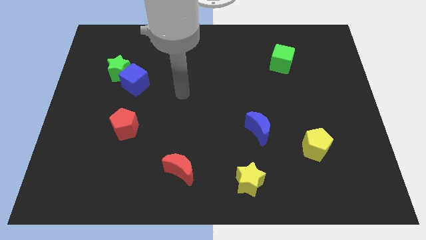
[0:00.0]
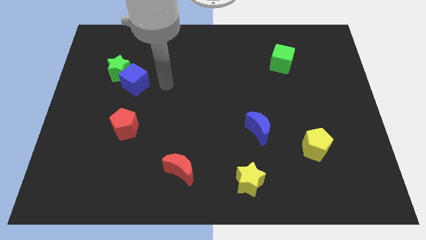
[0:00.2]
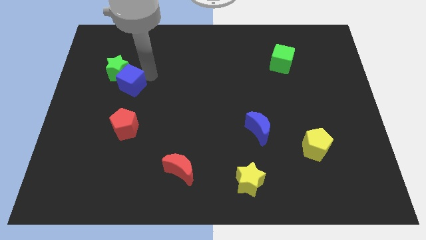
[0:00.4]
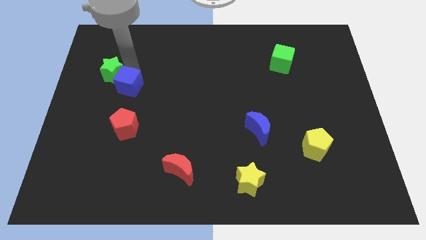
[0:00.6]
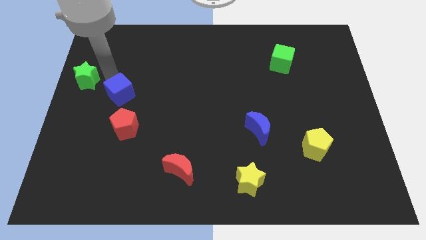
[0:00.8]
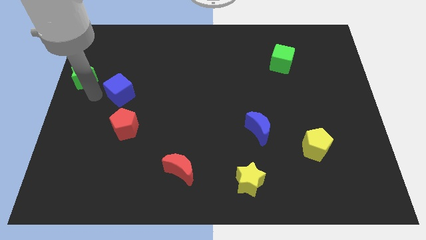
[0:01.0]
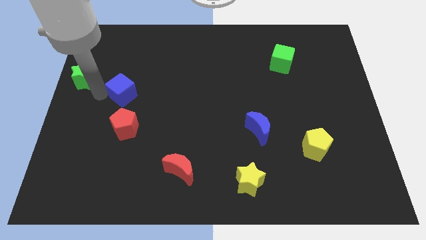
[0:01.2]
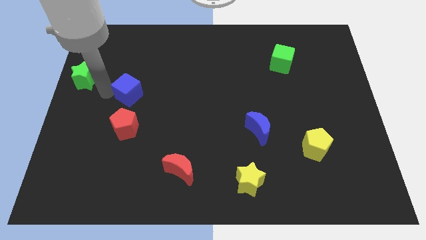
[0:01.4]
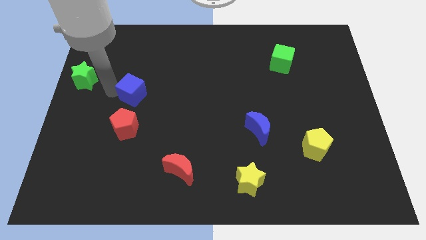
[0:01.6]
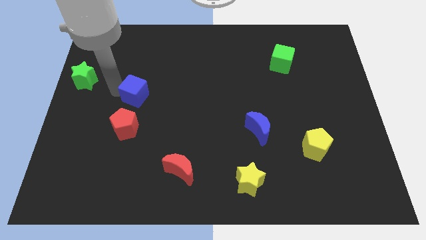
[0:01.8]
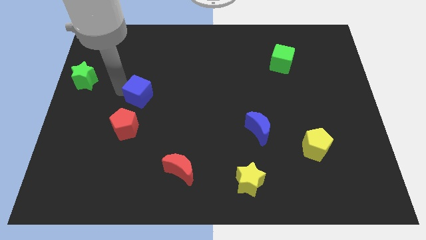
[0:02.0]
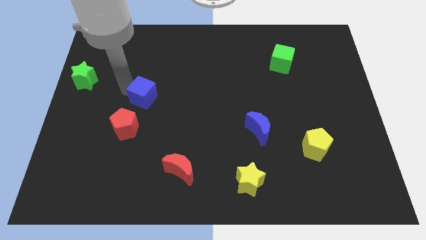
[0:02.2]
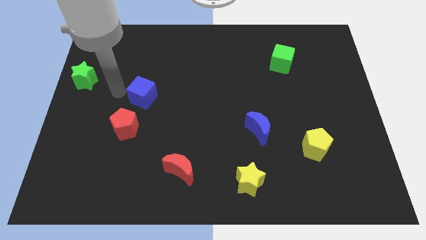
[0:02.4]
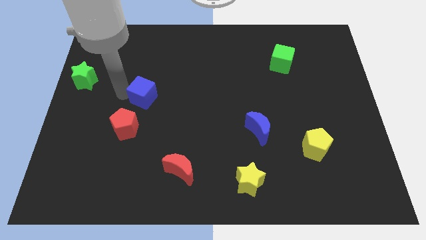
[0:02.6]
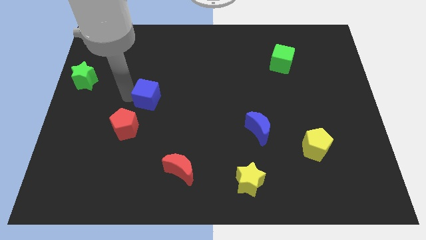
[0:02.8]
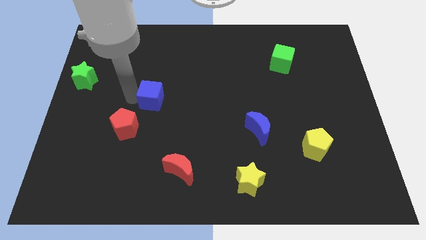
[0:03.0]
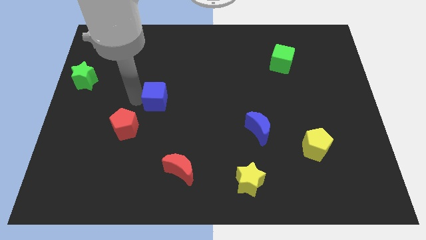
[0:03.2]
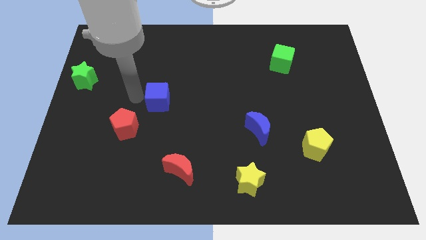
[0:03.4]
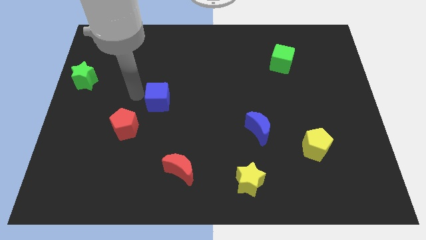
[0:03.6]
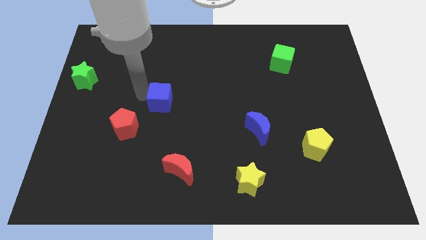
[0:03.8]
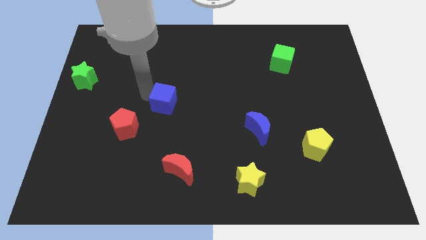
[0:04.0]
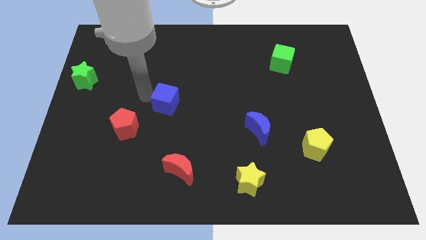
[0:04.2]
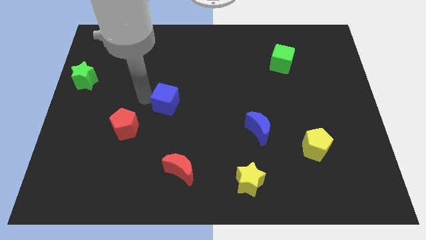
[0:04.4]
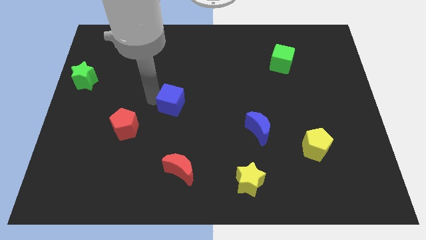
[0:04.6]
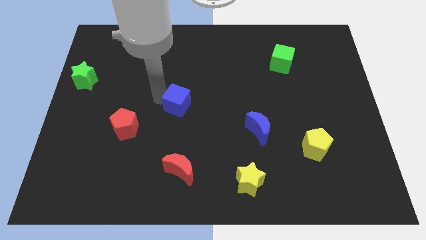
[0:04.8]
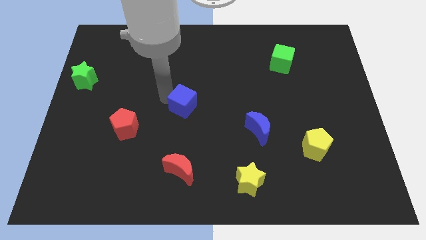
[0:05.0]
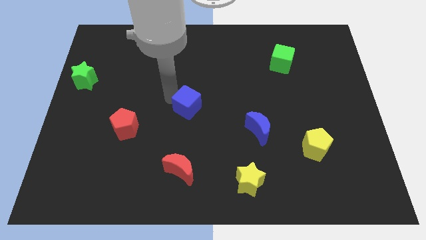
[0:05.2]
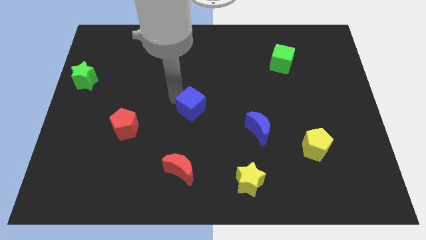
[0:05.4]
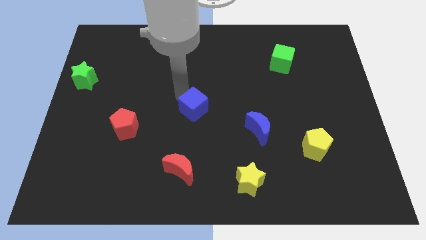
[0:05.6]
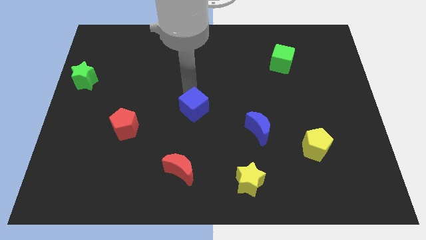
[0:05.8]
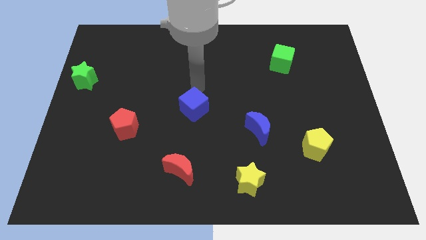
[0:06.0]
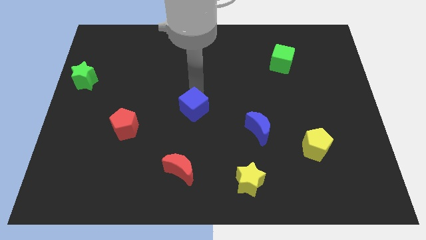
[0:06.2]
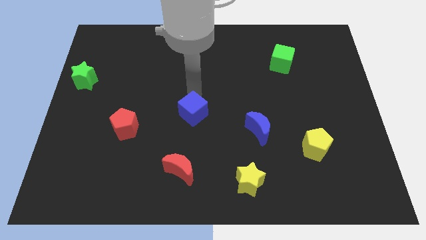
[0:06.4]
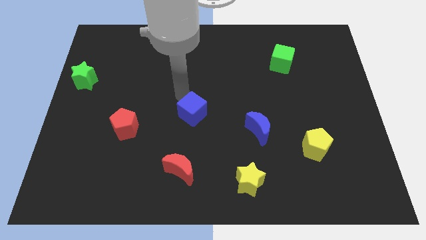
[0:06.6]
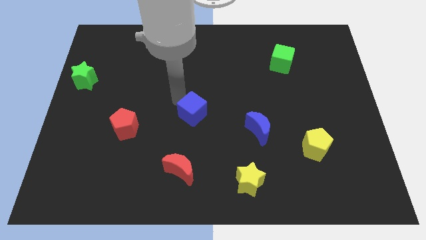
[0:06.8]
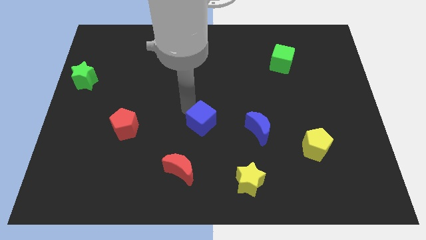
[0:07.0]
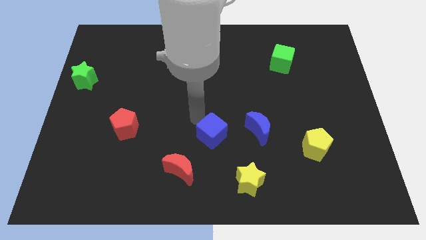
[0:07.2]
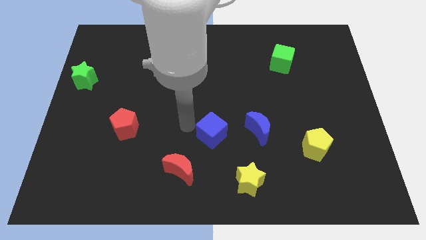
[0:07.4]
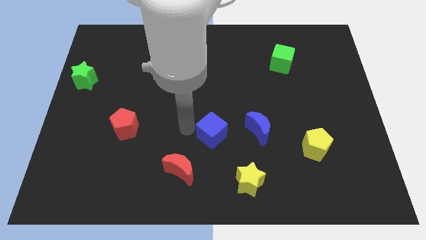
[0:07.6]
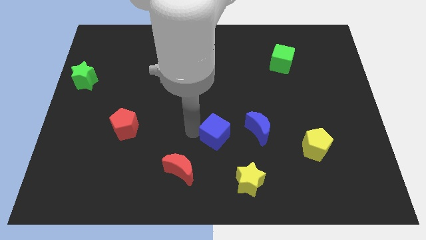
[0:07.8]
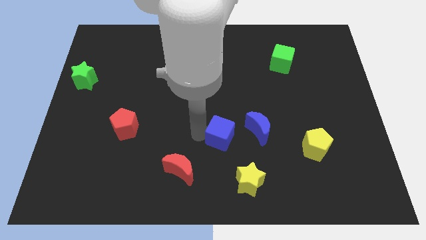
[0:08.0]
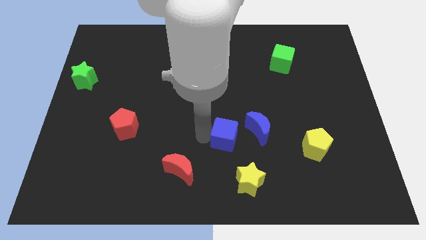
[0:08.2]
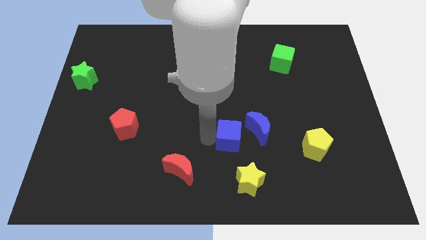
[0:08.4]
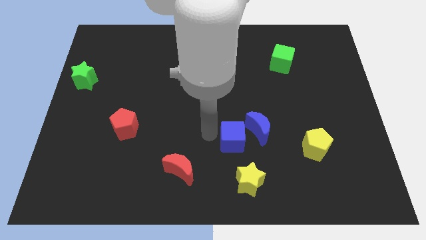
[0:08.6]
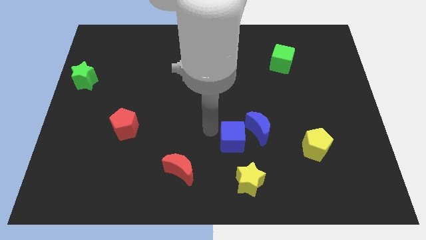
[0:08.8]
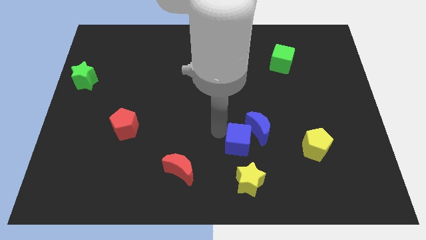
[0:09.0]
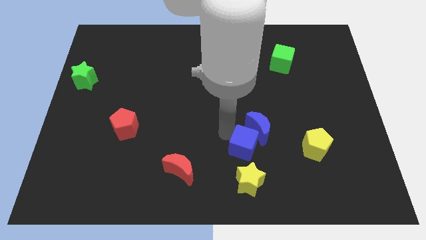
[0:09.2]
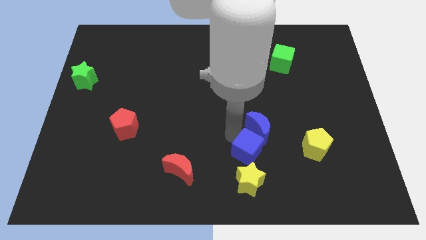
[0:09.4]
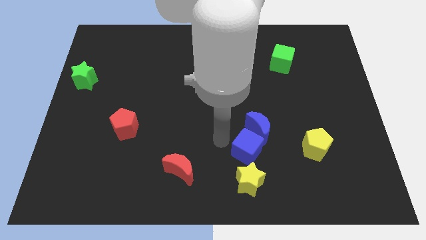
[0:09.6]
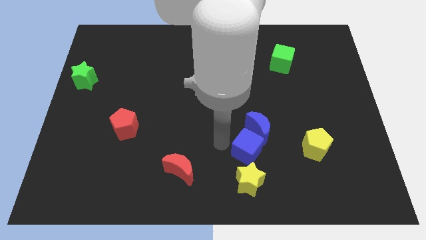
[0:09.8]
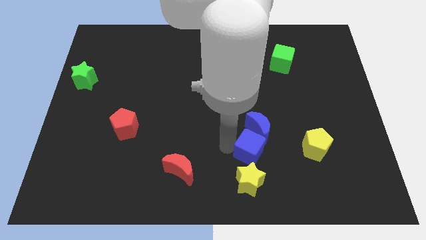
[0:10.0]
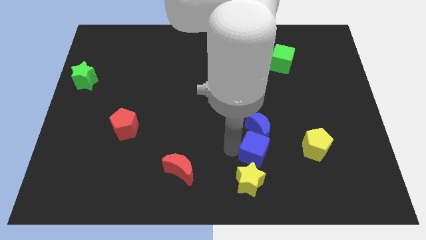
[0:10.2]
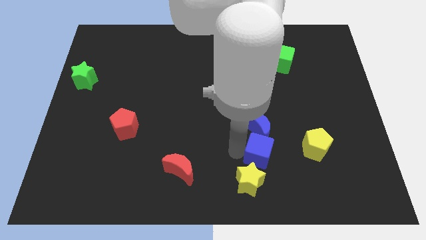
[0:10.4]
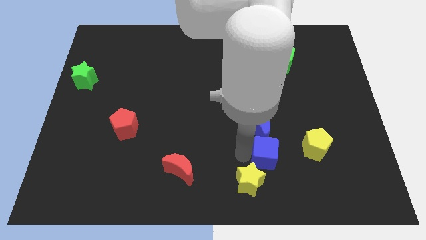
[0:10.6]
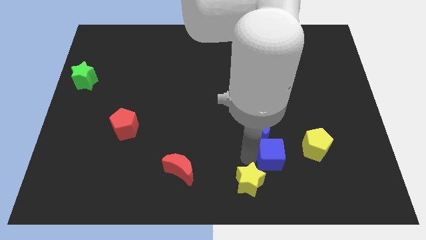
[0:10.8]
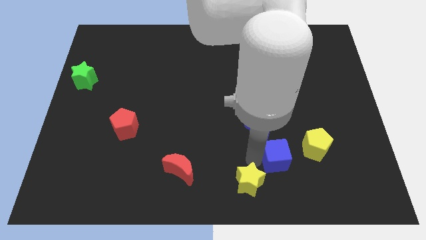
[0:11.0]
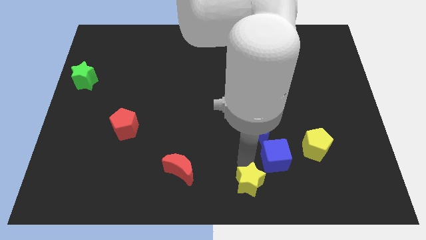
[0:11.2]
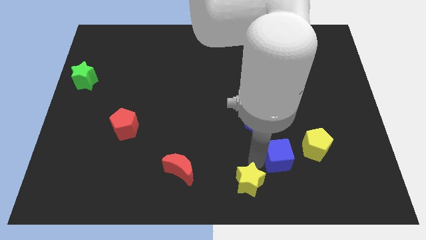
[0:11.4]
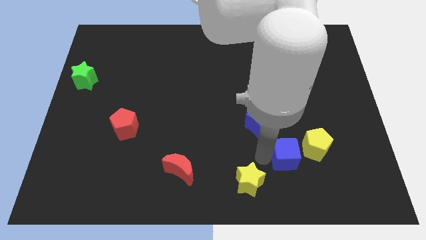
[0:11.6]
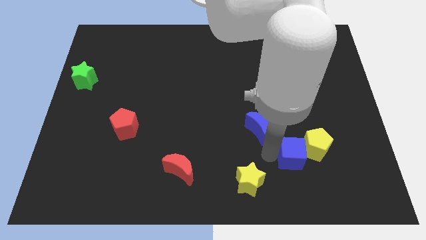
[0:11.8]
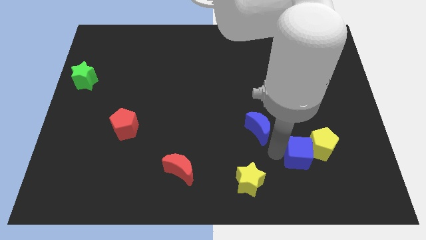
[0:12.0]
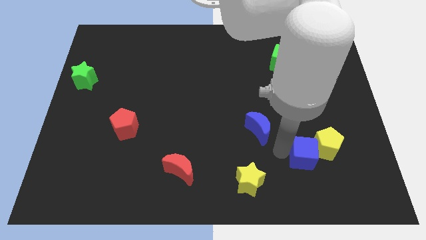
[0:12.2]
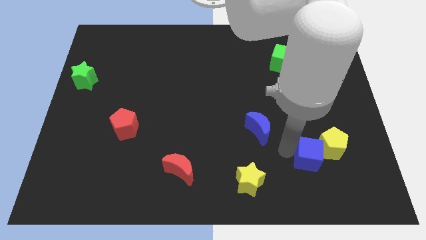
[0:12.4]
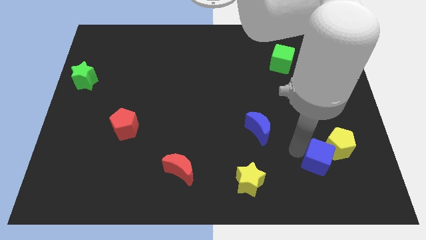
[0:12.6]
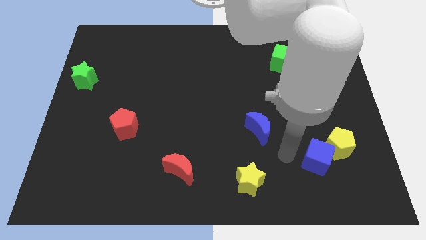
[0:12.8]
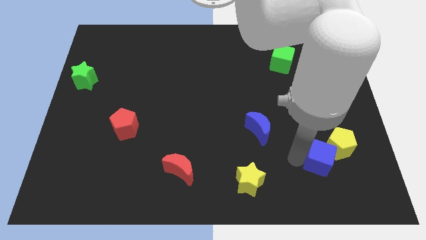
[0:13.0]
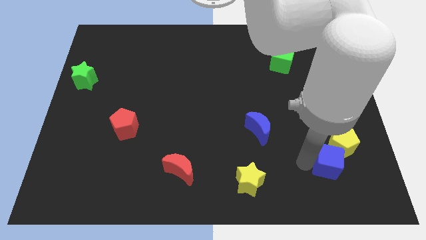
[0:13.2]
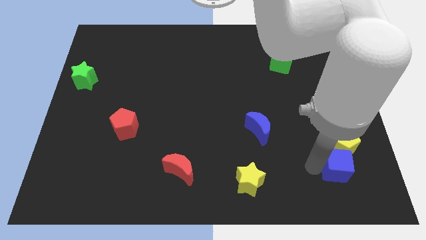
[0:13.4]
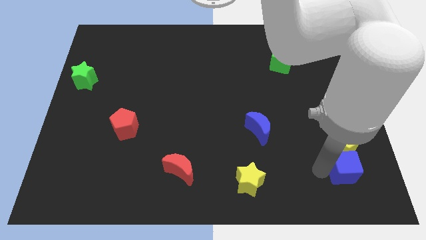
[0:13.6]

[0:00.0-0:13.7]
put the blue cube to the bottom right side of the yellow pentagon
